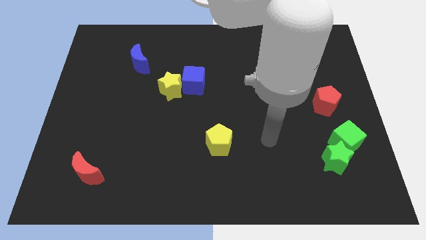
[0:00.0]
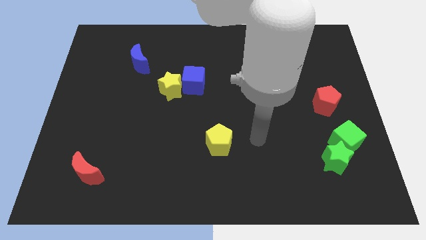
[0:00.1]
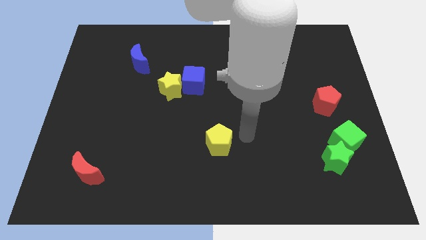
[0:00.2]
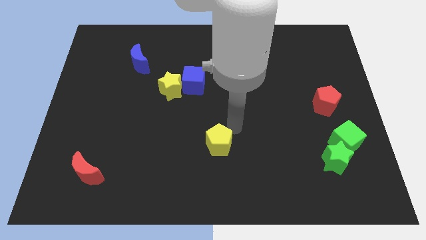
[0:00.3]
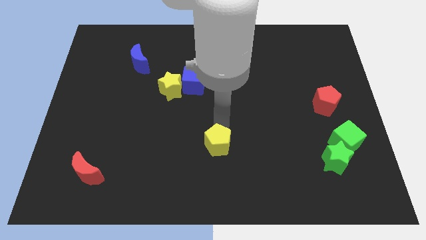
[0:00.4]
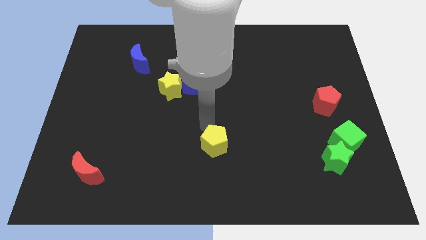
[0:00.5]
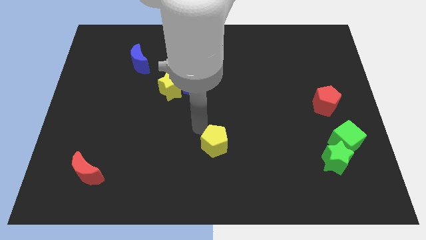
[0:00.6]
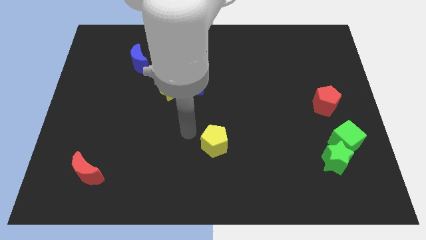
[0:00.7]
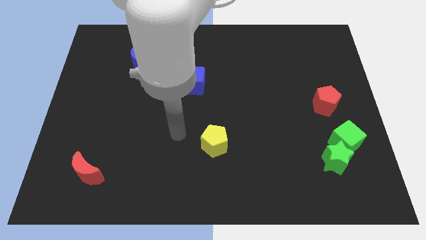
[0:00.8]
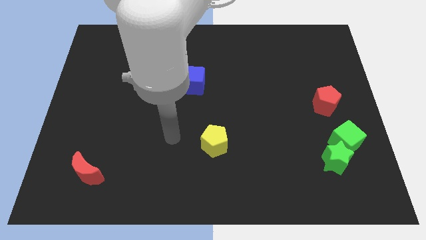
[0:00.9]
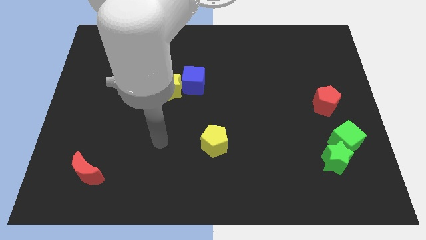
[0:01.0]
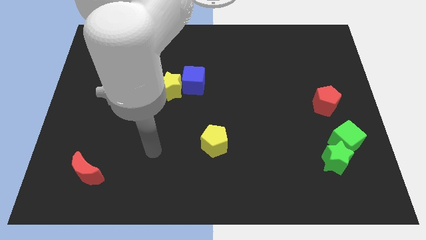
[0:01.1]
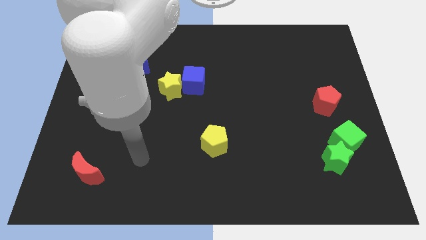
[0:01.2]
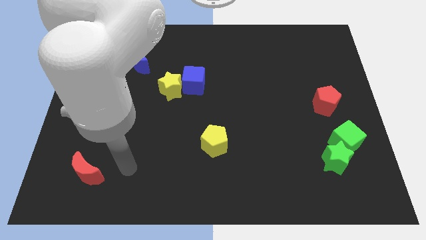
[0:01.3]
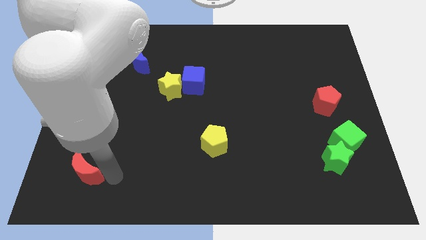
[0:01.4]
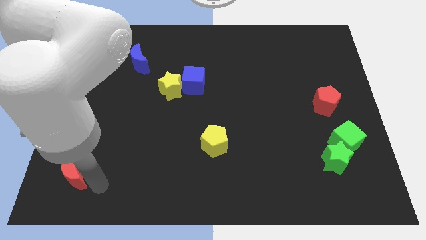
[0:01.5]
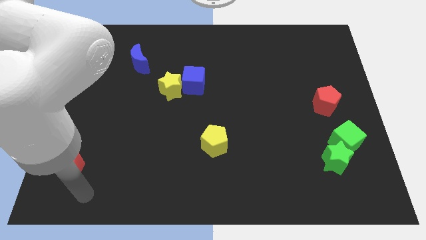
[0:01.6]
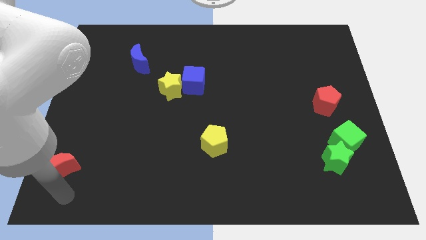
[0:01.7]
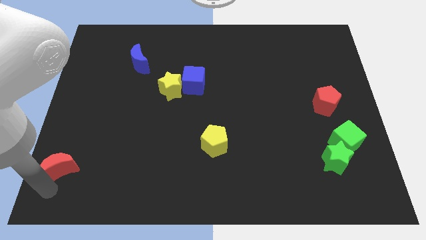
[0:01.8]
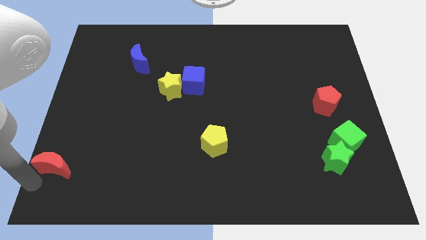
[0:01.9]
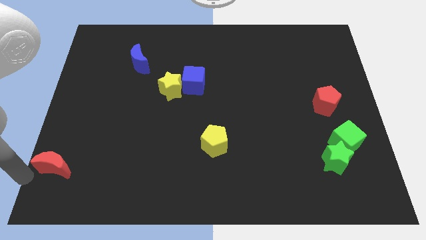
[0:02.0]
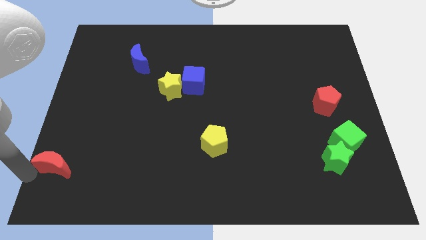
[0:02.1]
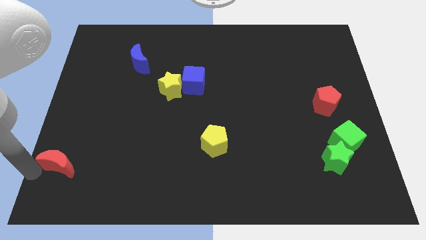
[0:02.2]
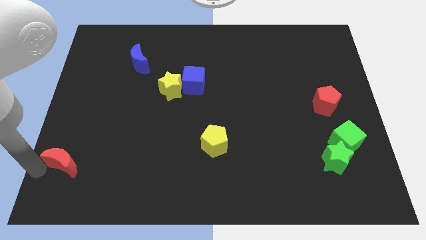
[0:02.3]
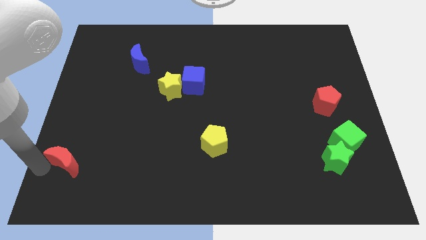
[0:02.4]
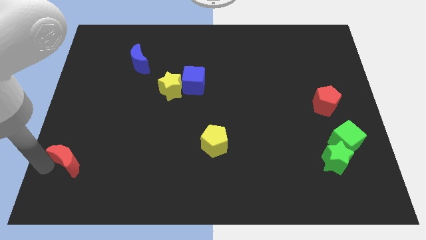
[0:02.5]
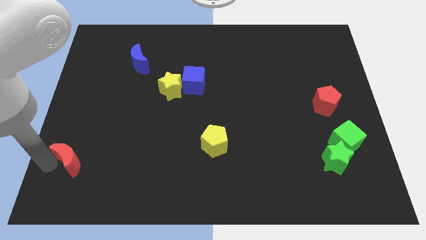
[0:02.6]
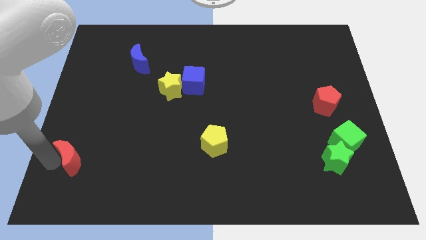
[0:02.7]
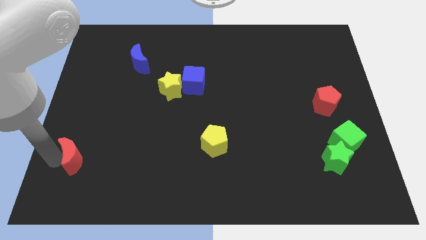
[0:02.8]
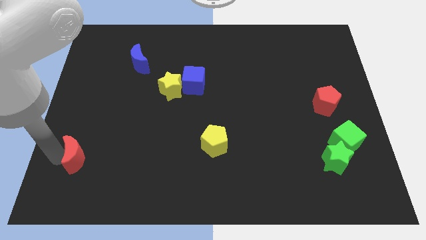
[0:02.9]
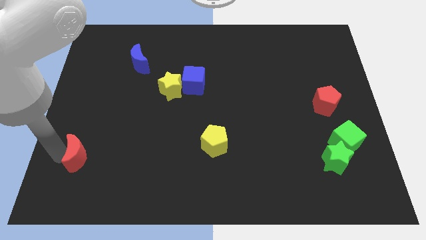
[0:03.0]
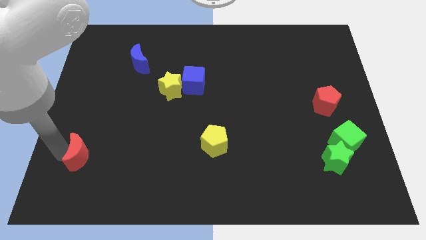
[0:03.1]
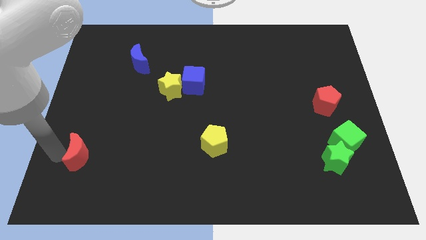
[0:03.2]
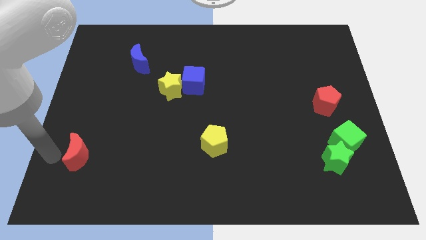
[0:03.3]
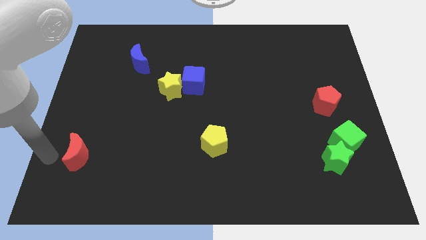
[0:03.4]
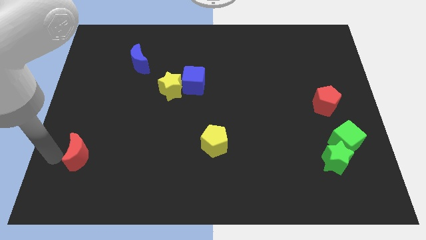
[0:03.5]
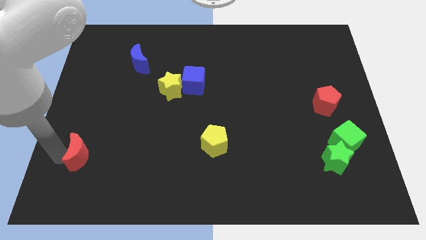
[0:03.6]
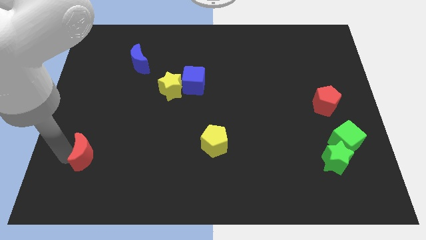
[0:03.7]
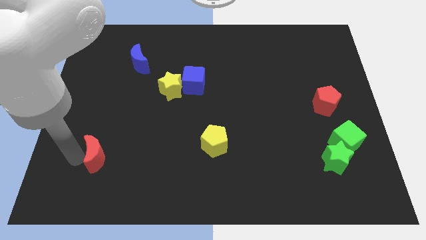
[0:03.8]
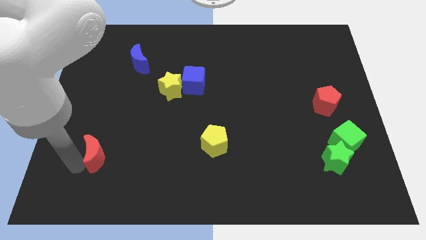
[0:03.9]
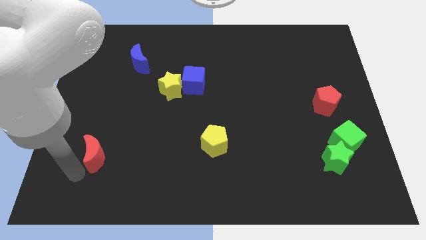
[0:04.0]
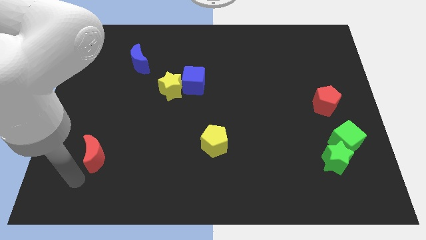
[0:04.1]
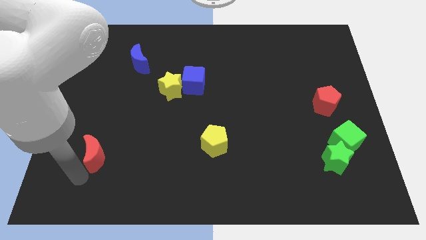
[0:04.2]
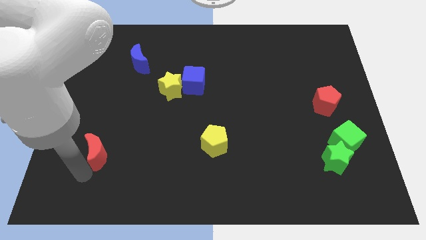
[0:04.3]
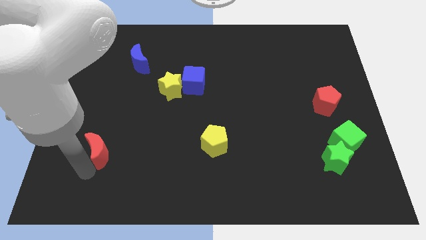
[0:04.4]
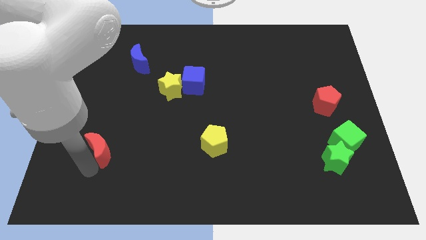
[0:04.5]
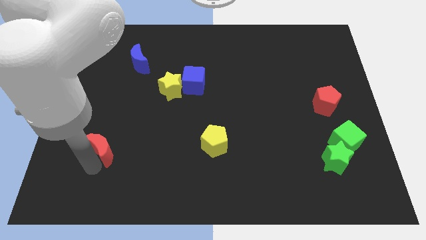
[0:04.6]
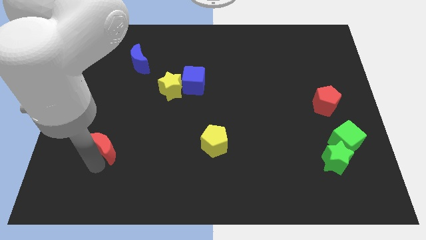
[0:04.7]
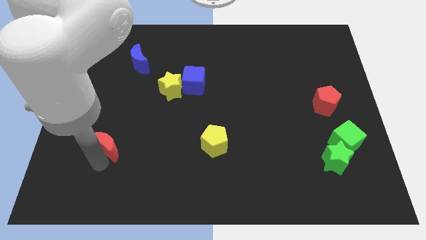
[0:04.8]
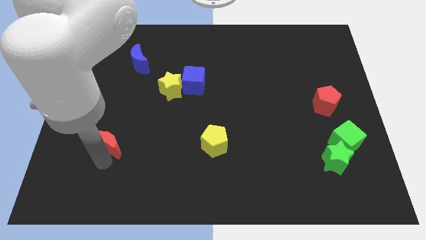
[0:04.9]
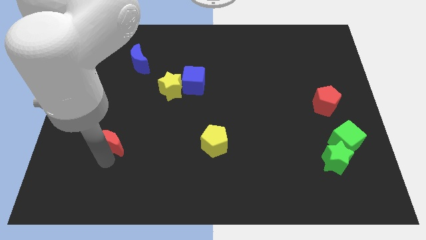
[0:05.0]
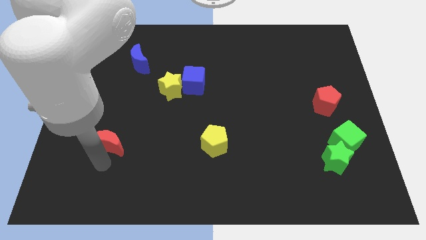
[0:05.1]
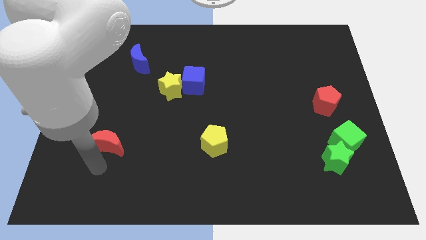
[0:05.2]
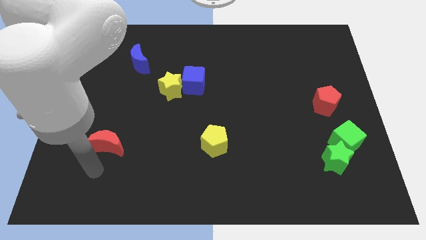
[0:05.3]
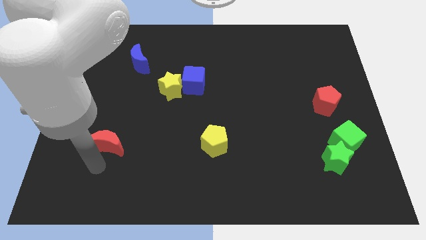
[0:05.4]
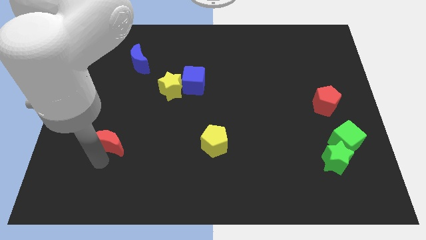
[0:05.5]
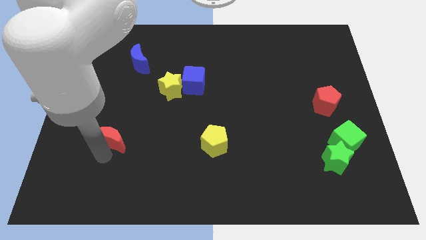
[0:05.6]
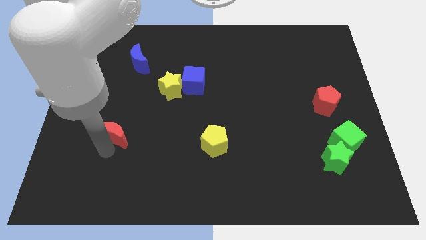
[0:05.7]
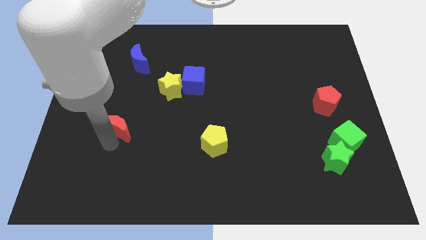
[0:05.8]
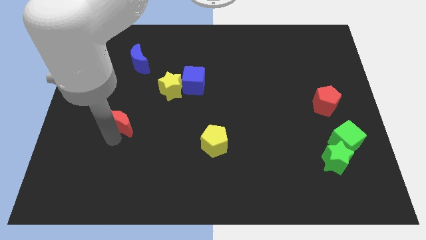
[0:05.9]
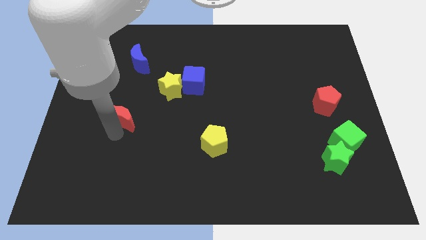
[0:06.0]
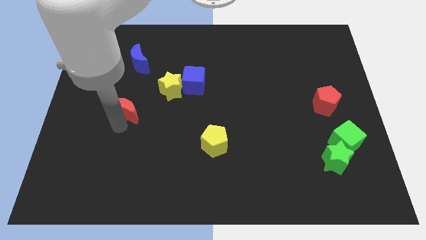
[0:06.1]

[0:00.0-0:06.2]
slide the red moon to the bottom side of the blue moon

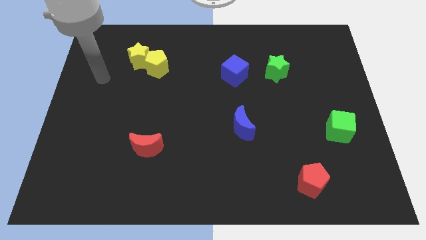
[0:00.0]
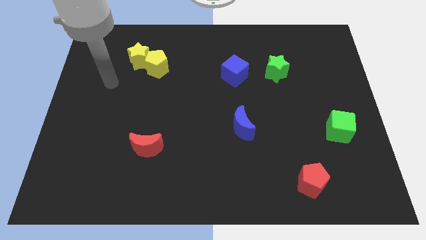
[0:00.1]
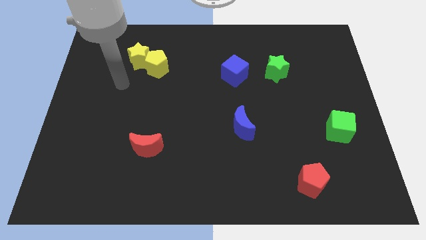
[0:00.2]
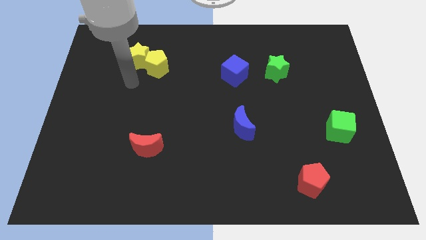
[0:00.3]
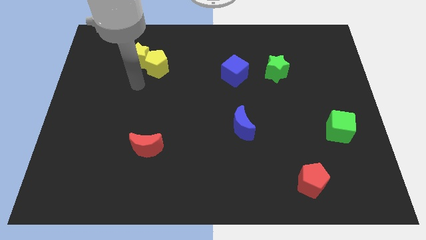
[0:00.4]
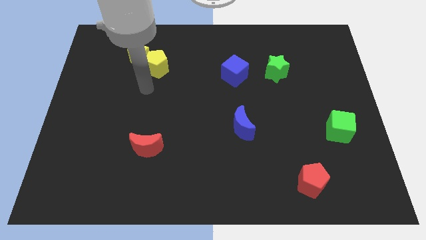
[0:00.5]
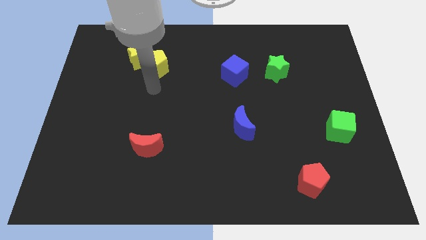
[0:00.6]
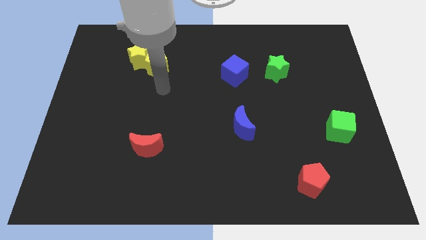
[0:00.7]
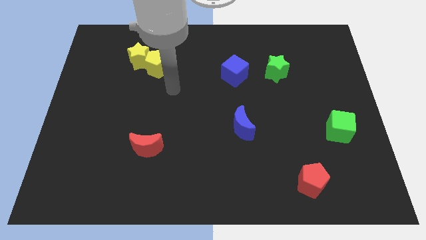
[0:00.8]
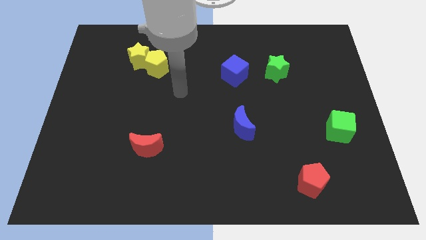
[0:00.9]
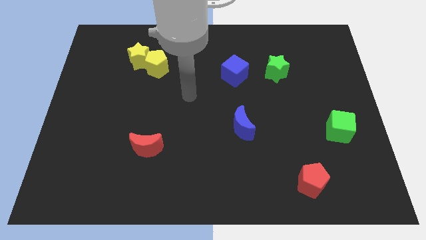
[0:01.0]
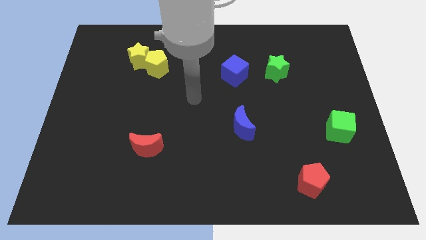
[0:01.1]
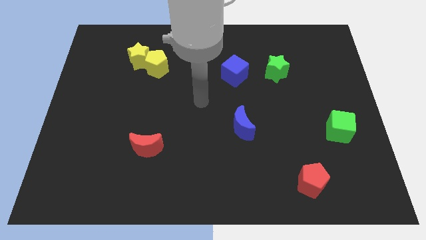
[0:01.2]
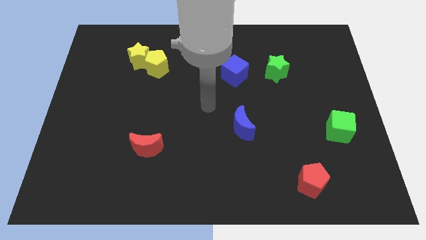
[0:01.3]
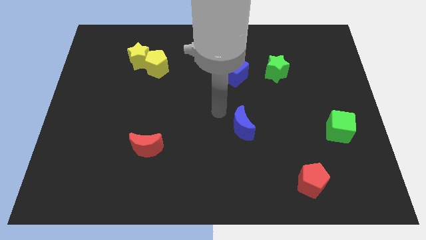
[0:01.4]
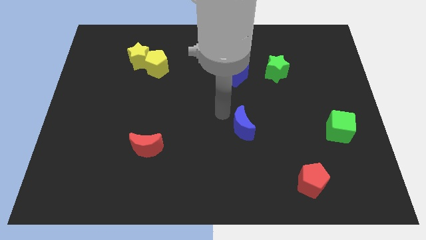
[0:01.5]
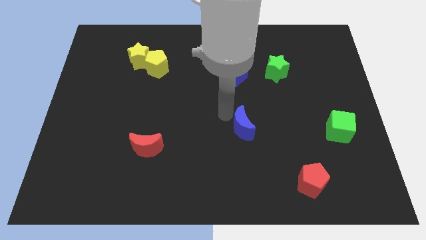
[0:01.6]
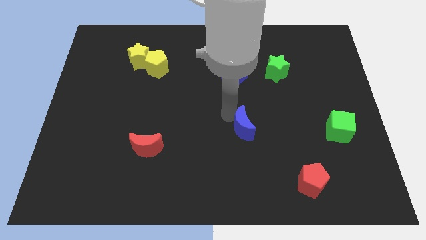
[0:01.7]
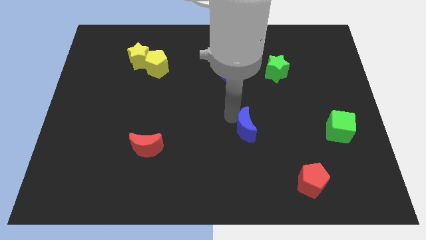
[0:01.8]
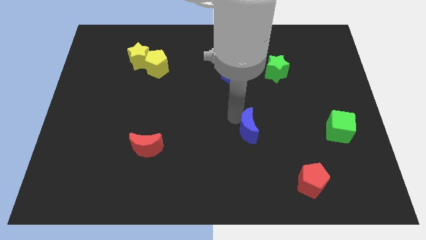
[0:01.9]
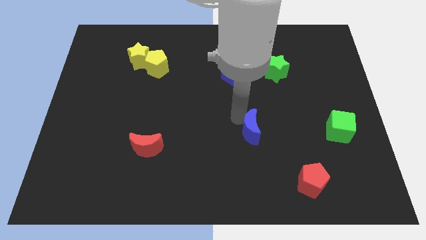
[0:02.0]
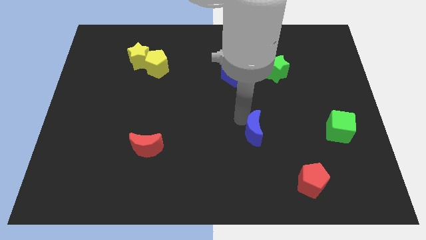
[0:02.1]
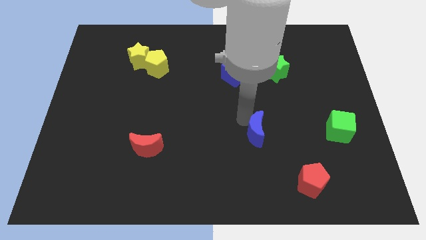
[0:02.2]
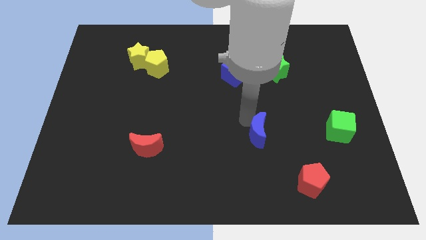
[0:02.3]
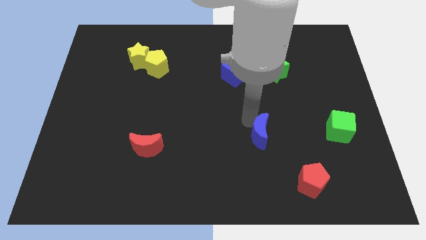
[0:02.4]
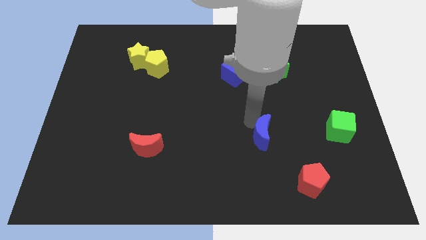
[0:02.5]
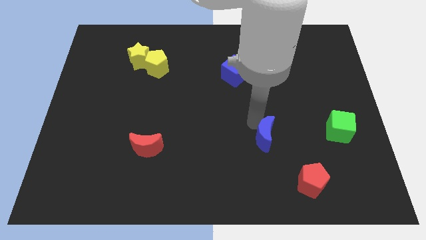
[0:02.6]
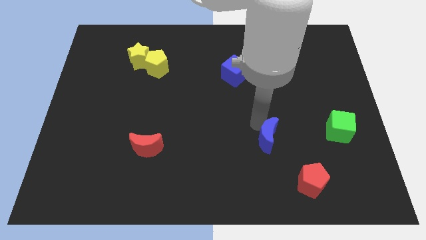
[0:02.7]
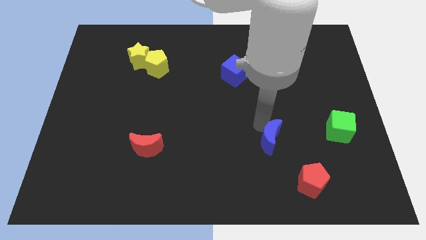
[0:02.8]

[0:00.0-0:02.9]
put the blue moon to the top left side of the red pentagon
